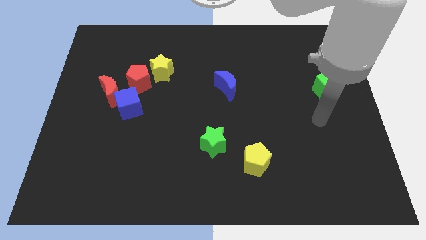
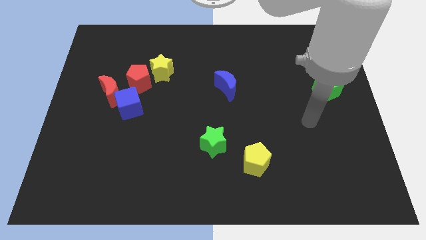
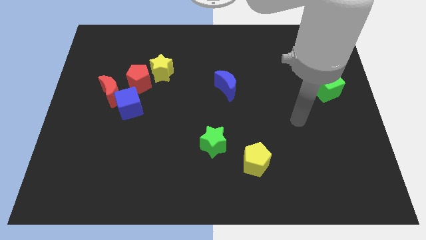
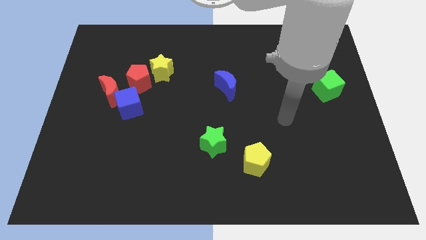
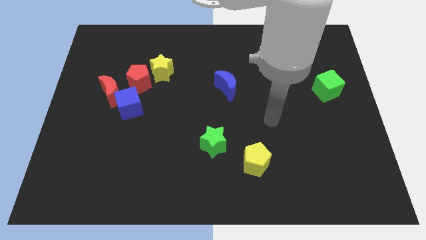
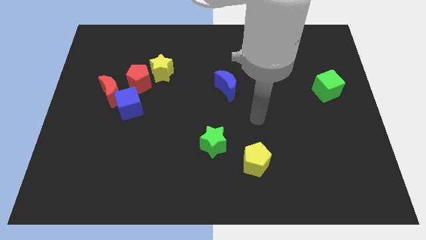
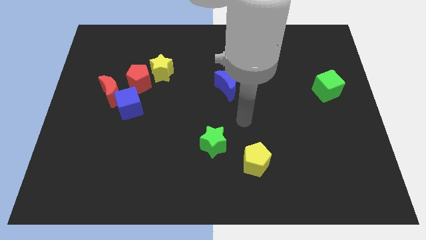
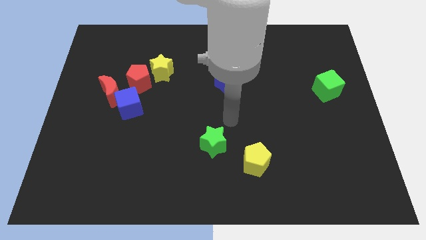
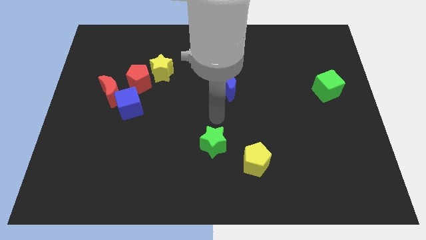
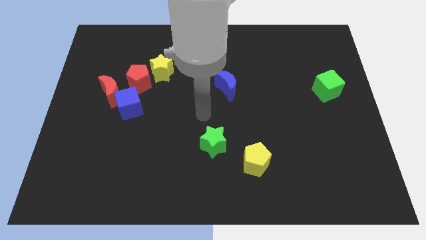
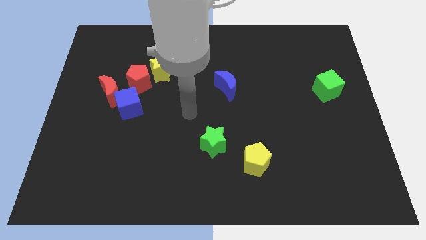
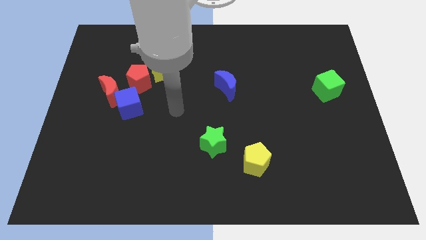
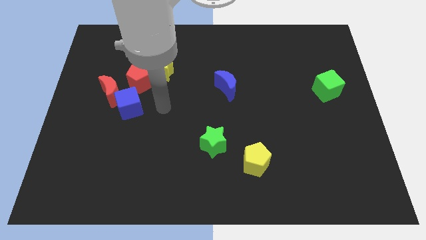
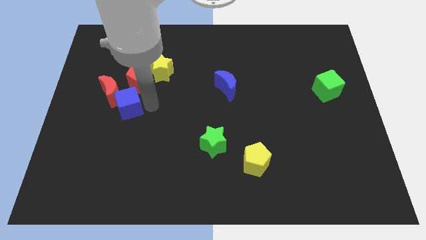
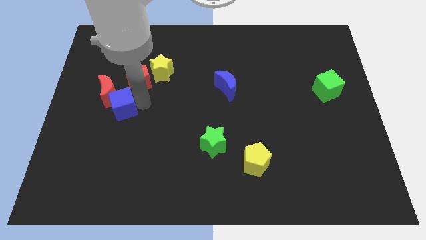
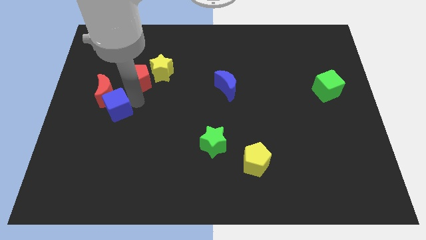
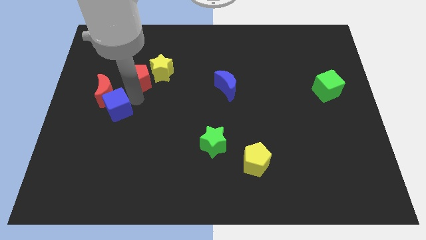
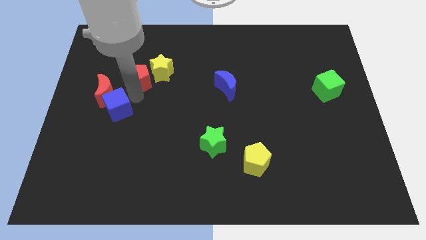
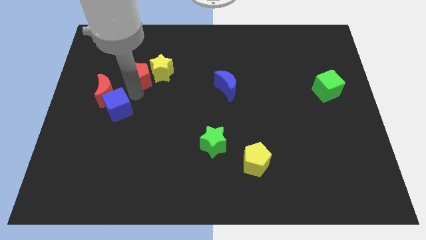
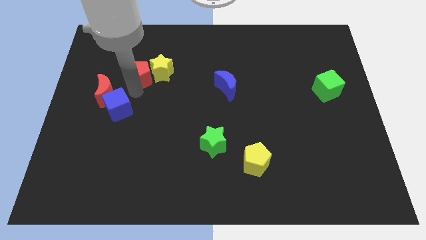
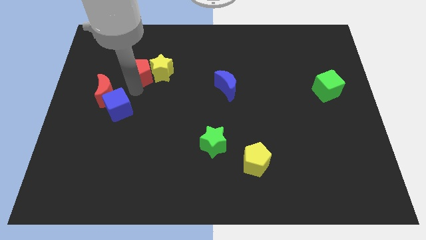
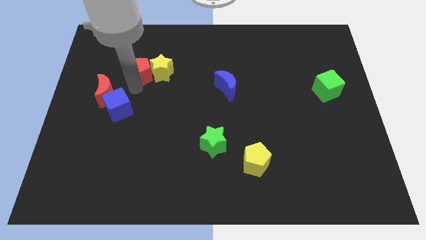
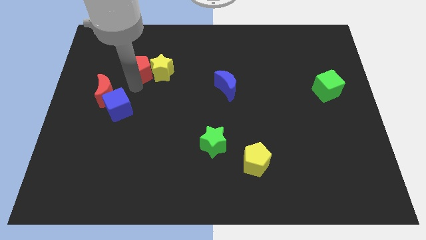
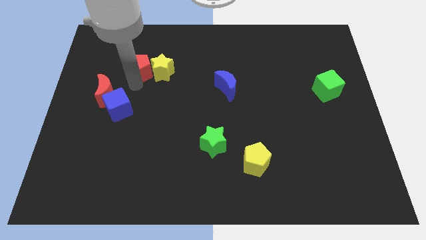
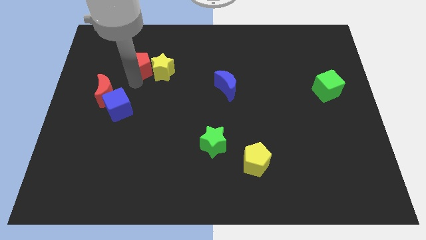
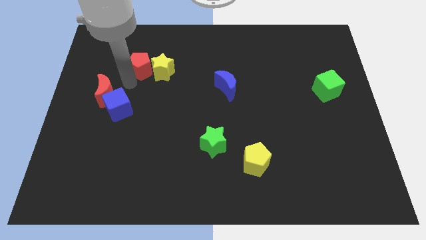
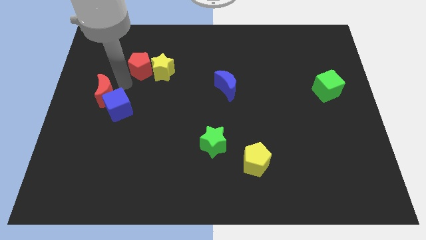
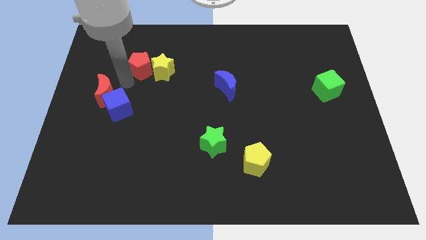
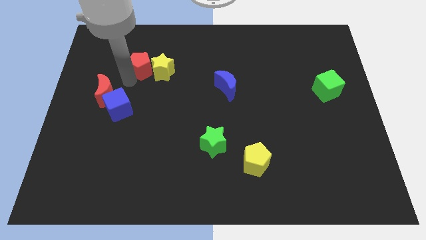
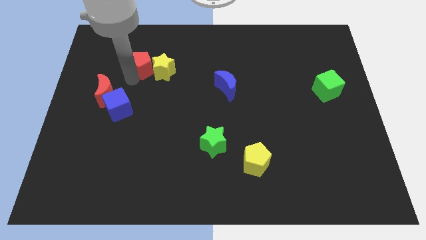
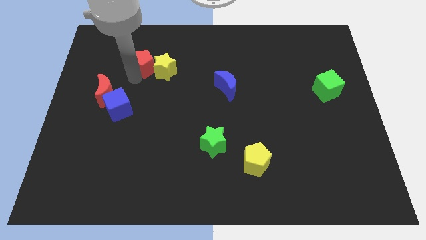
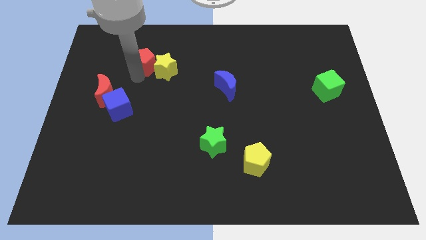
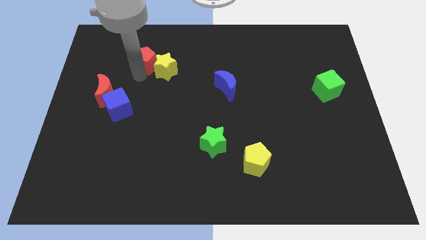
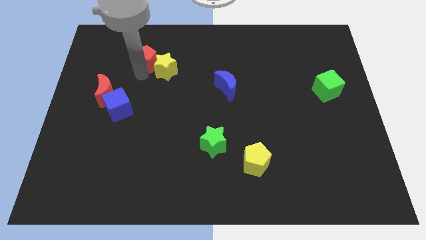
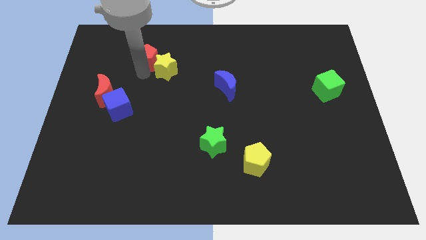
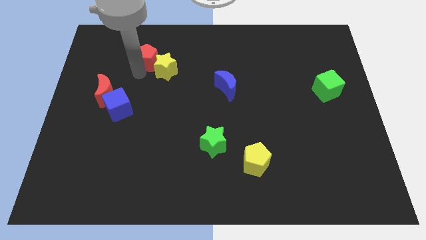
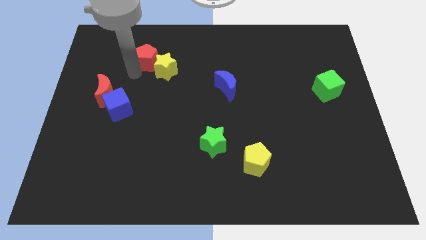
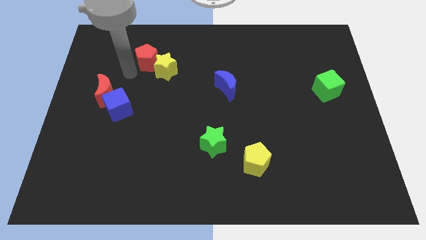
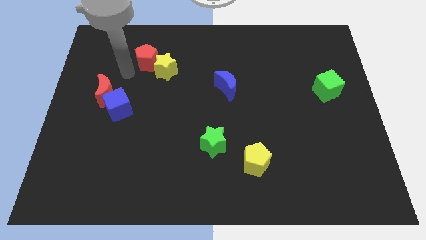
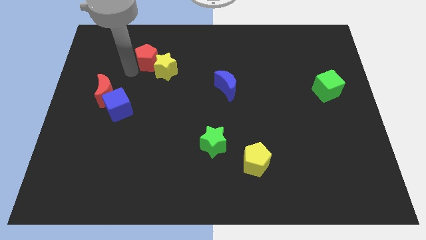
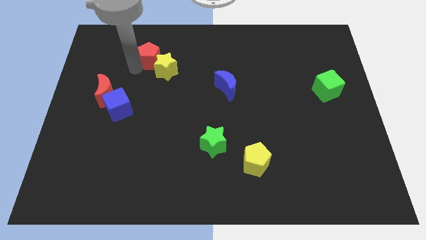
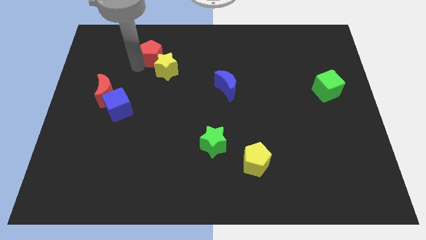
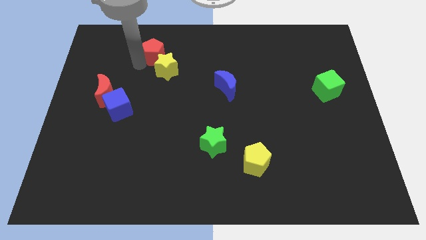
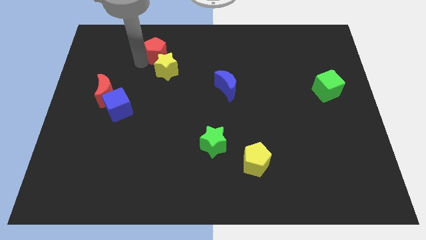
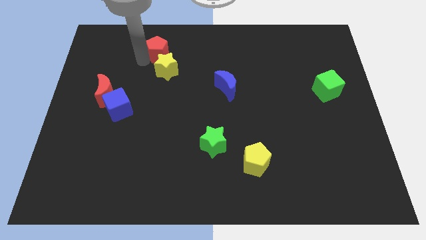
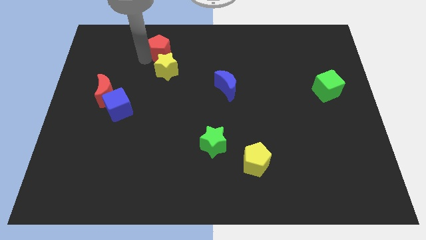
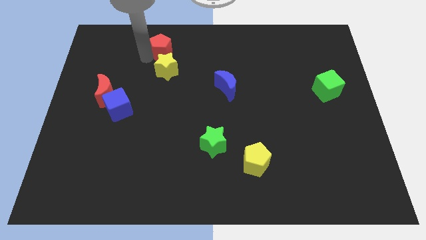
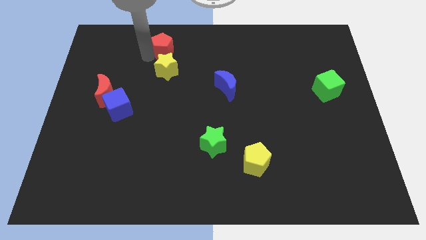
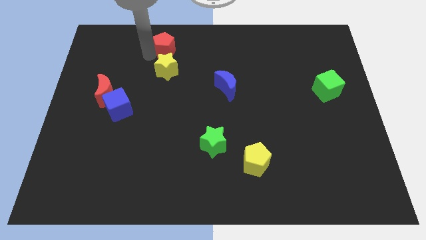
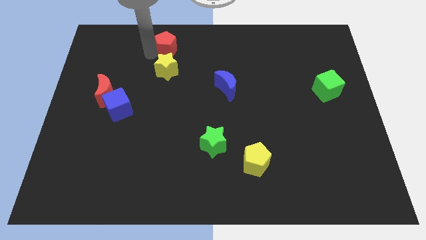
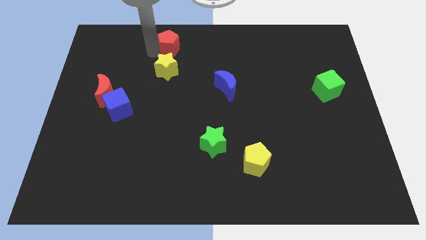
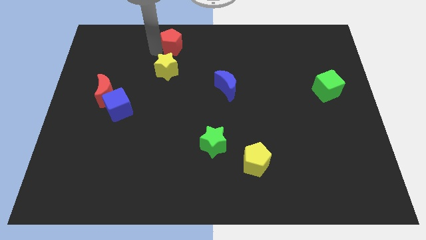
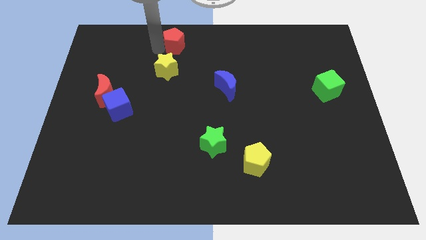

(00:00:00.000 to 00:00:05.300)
push the red pentagon to the top side

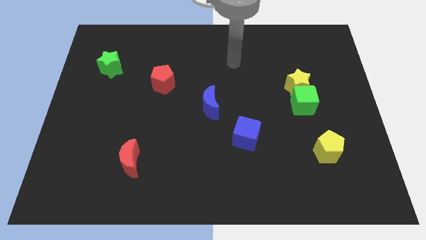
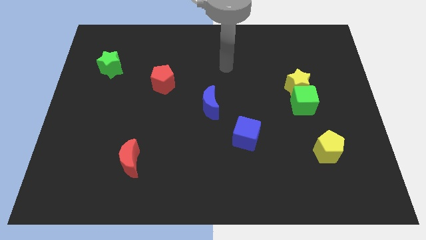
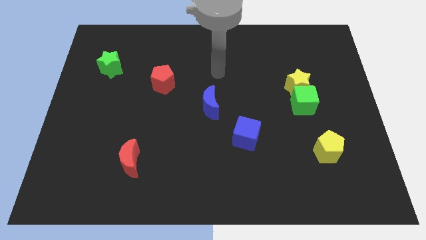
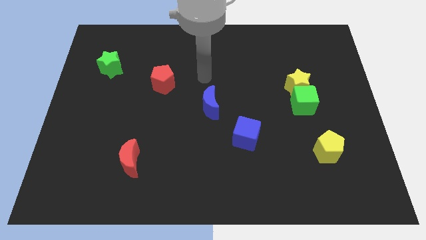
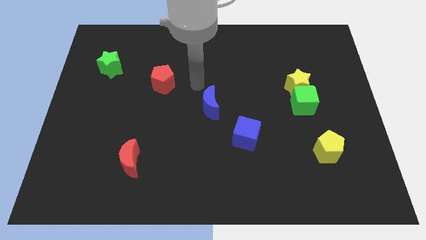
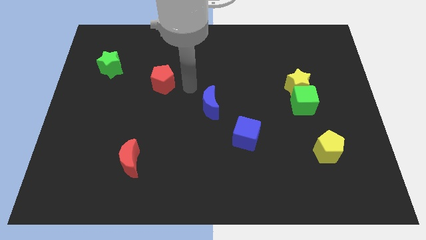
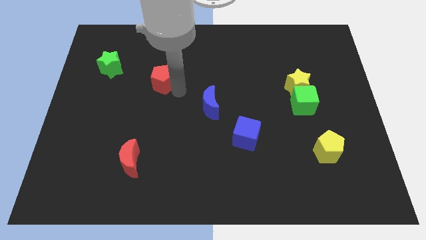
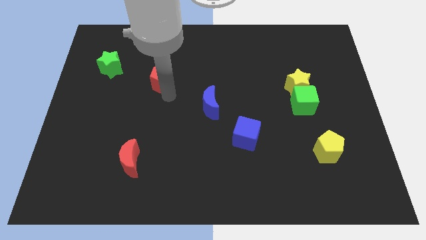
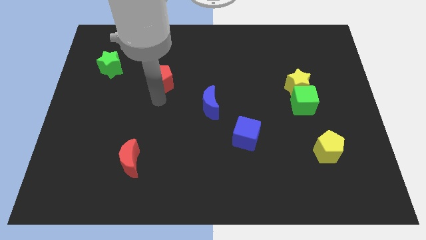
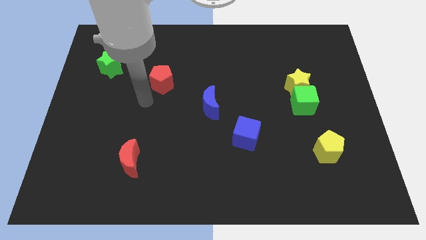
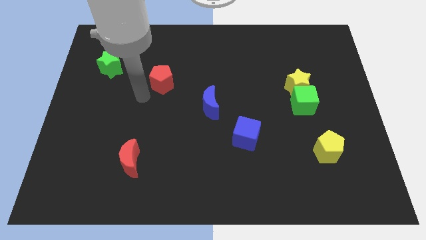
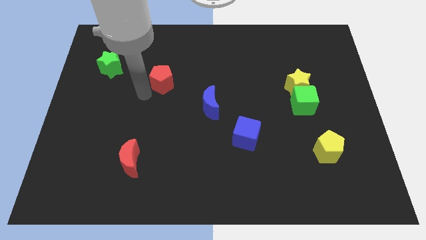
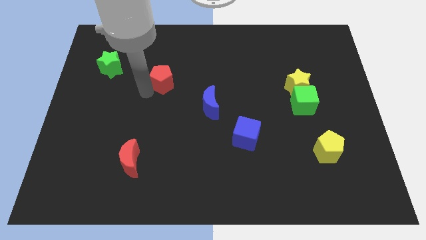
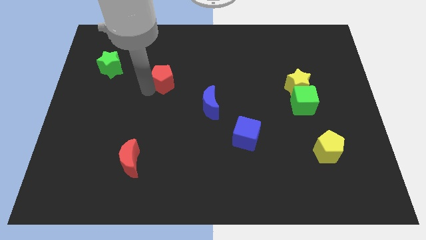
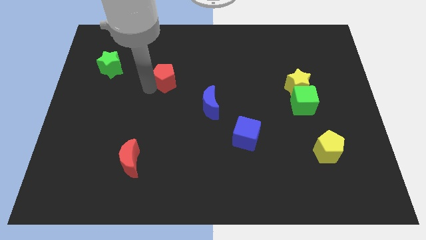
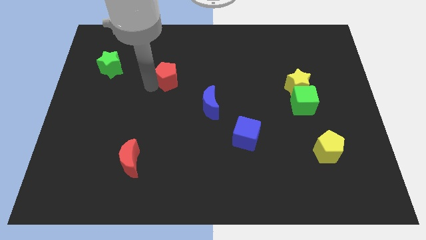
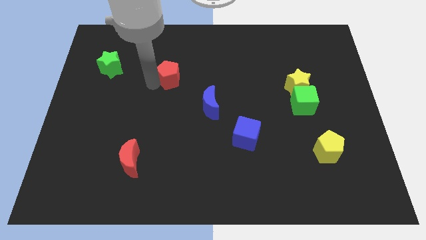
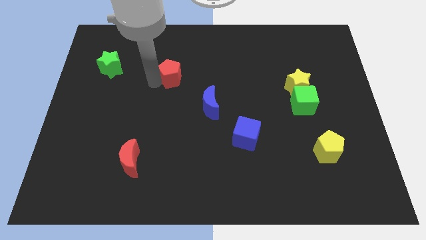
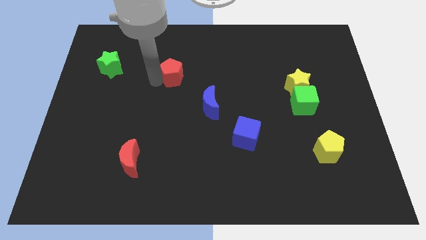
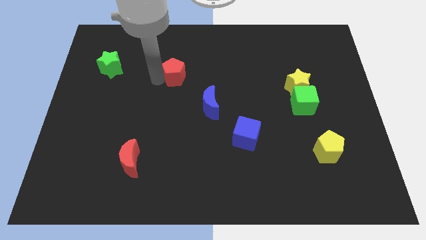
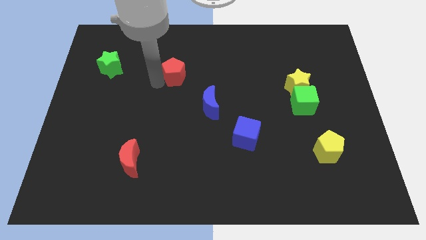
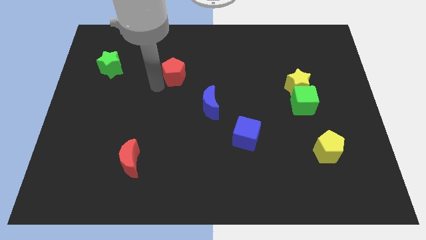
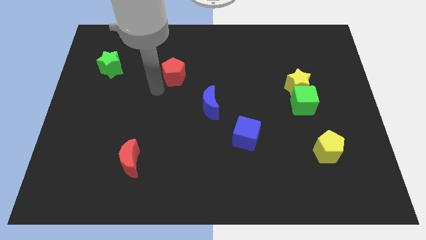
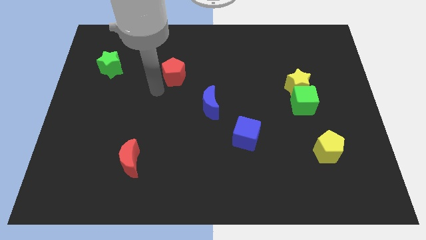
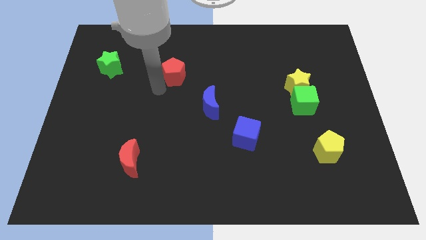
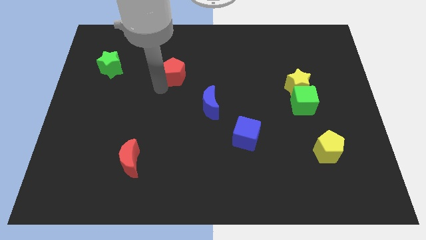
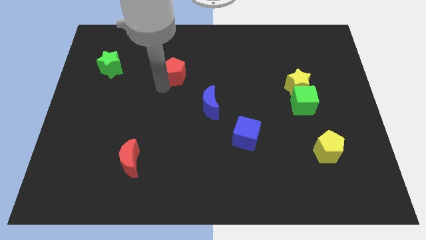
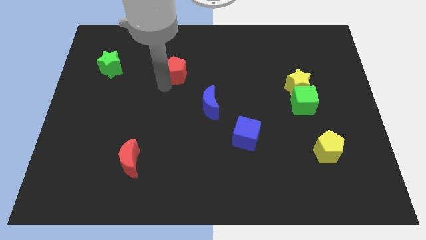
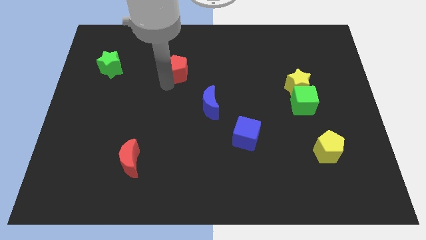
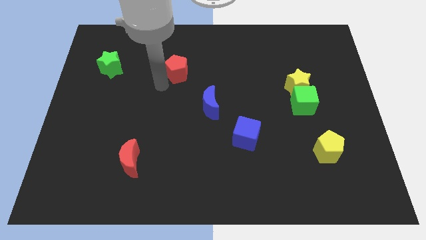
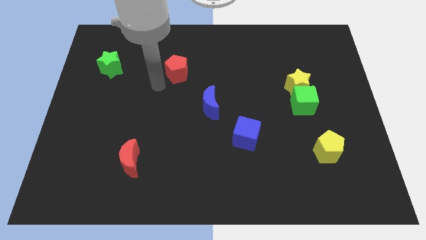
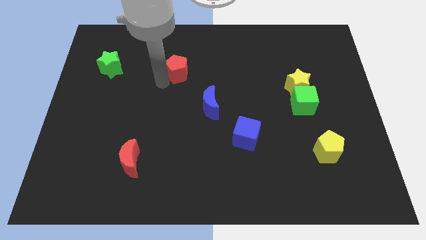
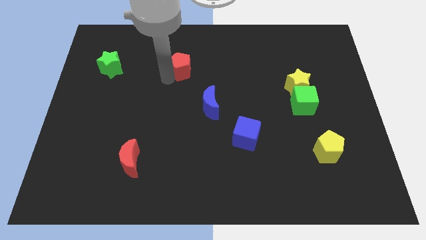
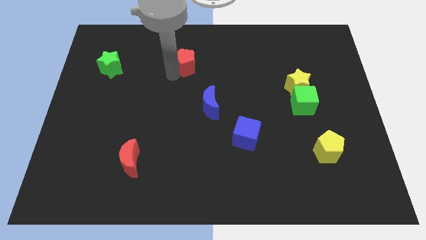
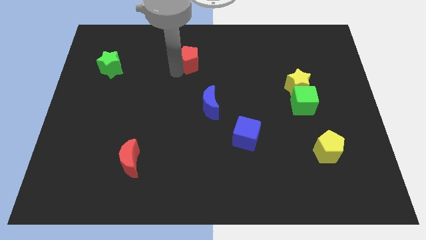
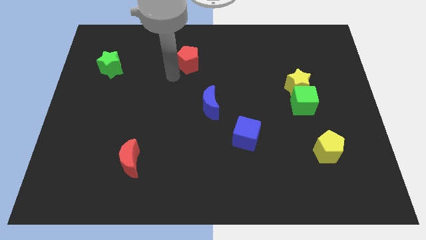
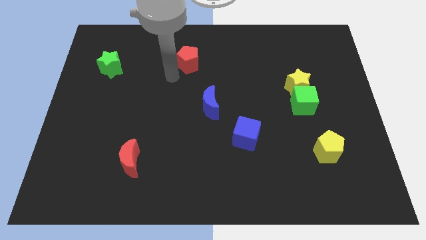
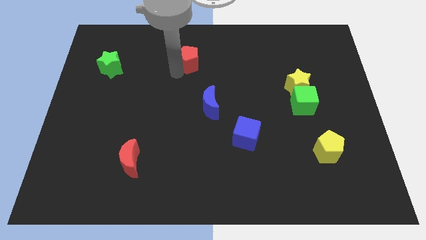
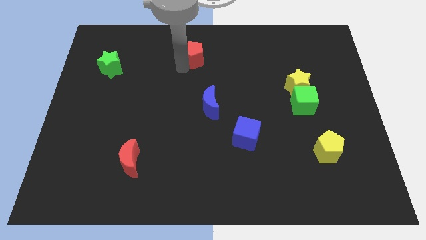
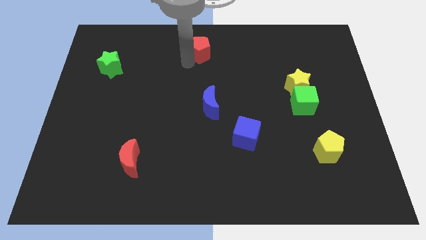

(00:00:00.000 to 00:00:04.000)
move the red pentagon to the top side
